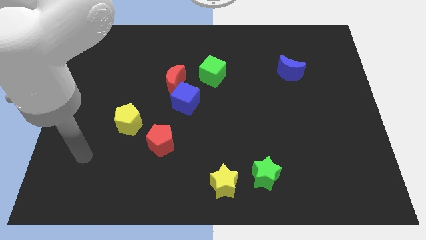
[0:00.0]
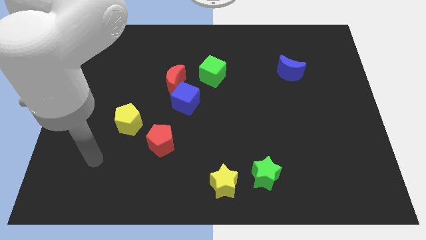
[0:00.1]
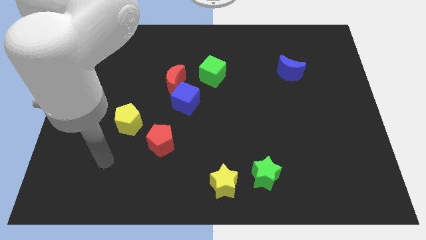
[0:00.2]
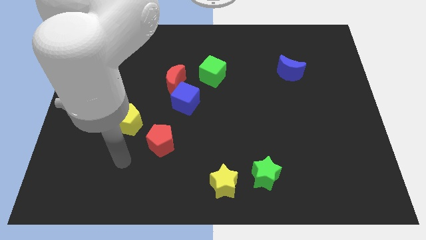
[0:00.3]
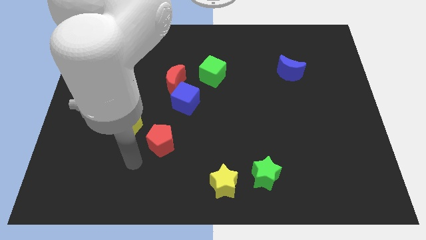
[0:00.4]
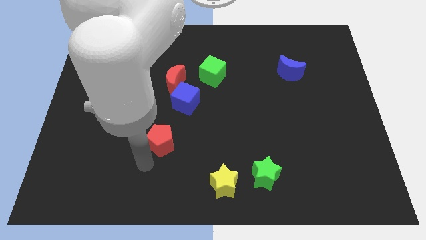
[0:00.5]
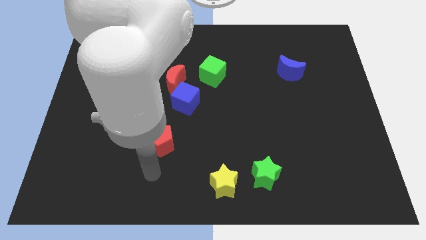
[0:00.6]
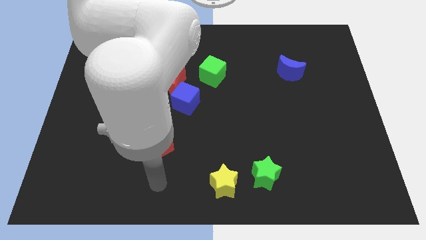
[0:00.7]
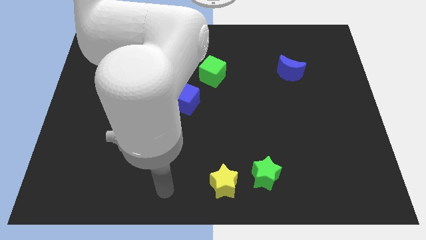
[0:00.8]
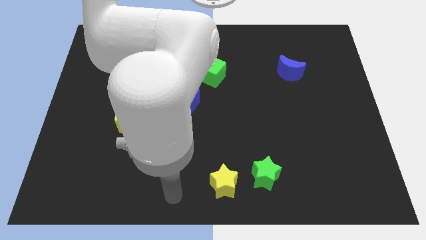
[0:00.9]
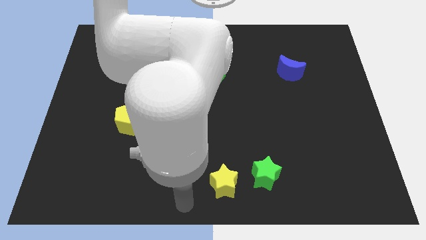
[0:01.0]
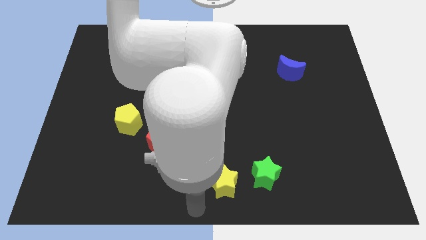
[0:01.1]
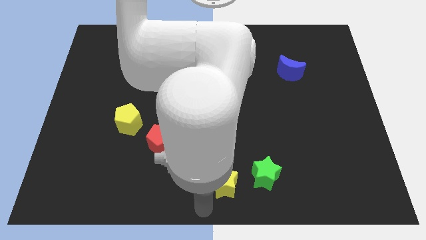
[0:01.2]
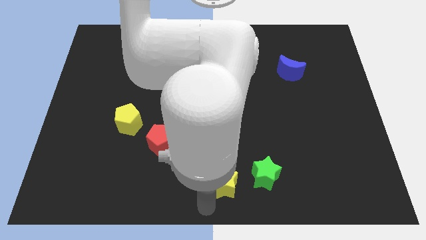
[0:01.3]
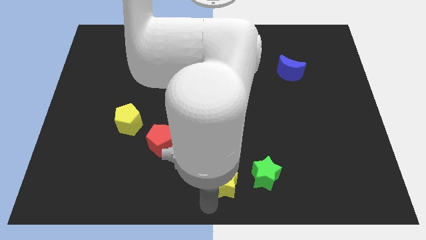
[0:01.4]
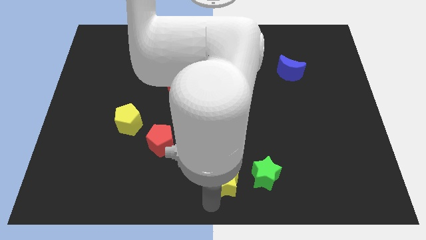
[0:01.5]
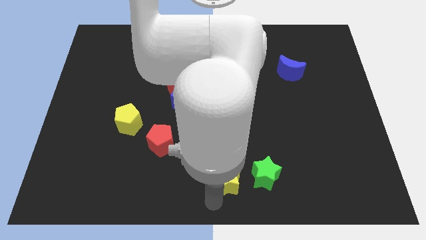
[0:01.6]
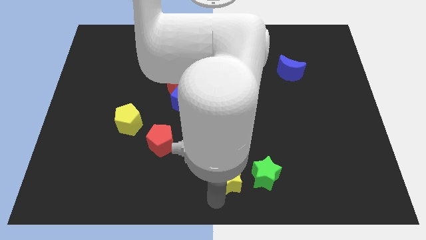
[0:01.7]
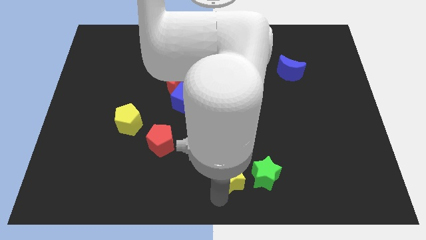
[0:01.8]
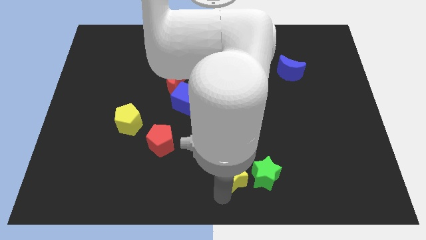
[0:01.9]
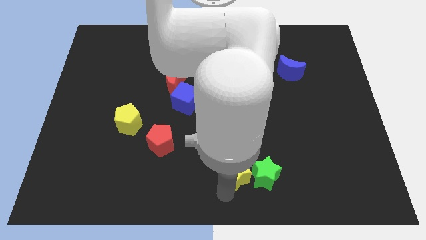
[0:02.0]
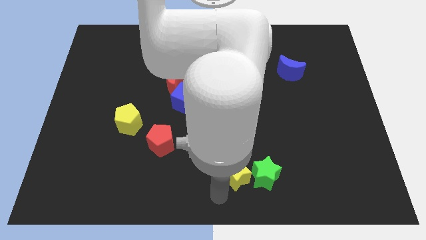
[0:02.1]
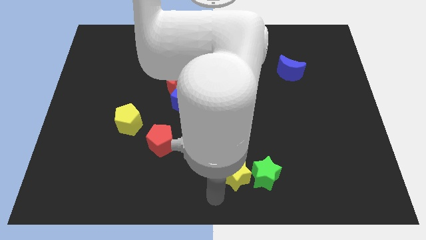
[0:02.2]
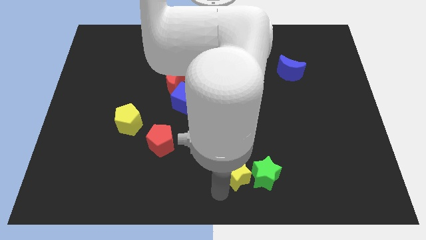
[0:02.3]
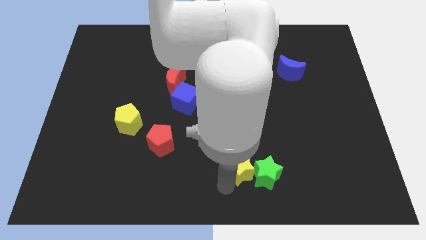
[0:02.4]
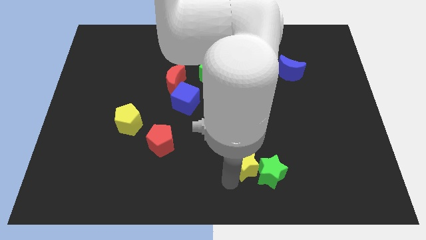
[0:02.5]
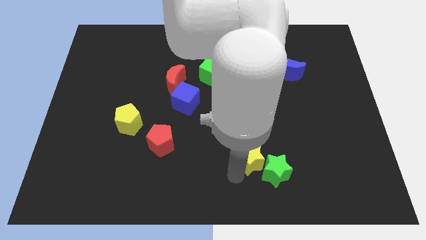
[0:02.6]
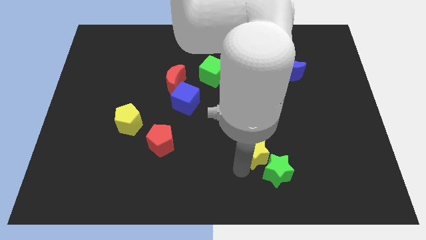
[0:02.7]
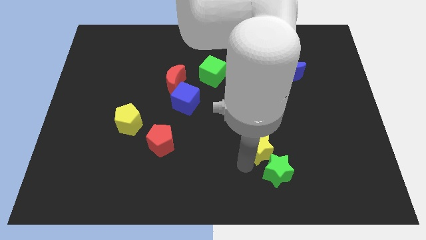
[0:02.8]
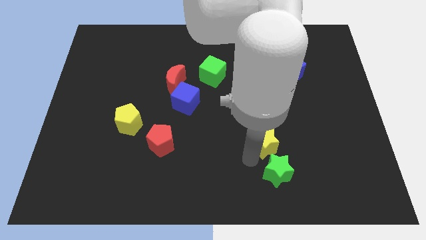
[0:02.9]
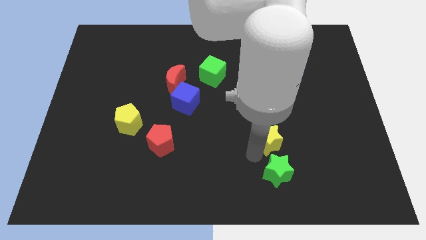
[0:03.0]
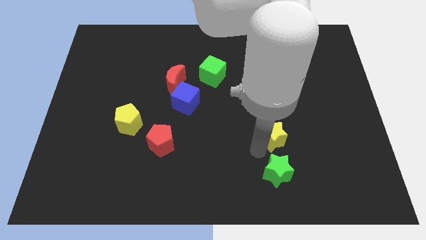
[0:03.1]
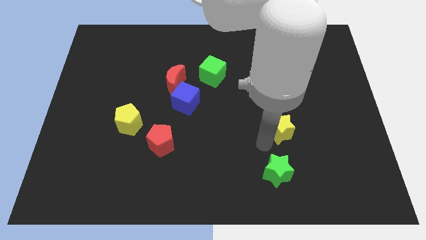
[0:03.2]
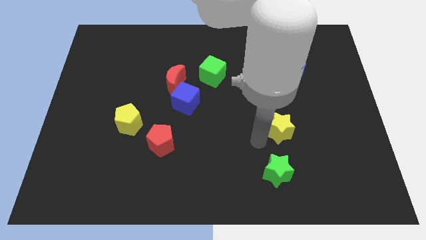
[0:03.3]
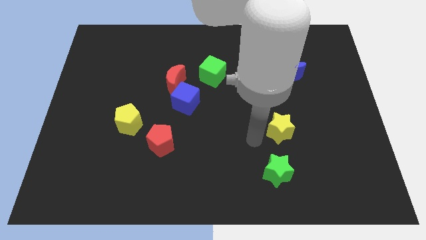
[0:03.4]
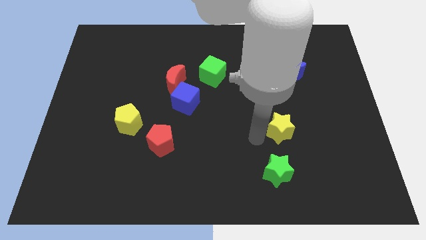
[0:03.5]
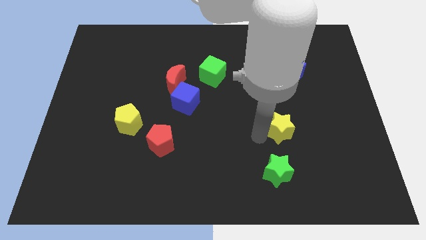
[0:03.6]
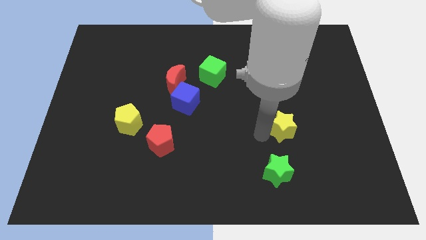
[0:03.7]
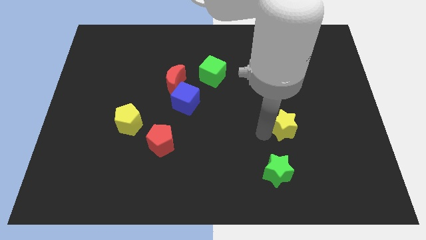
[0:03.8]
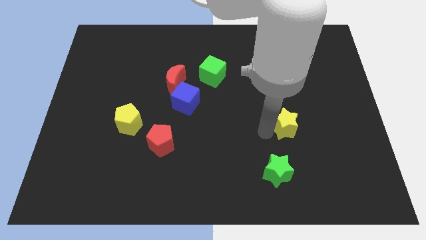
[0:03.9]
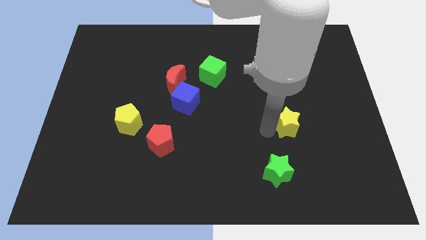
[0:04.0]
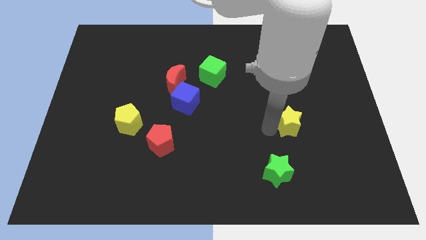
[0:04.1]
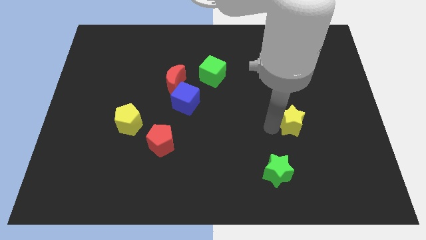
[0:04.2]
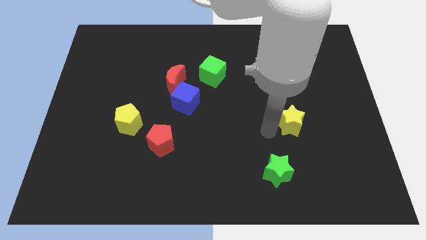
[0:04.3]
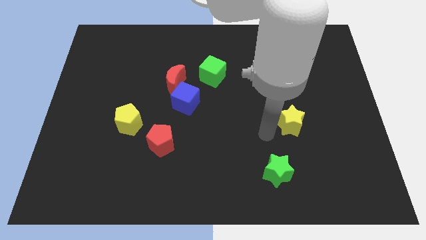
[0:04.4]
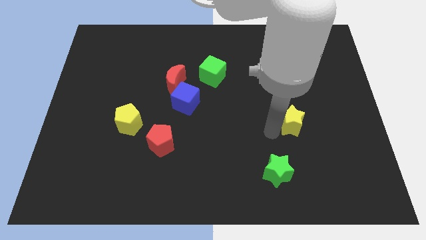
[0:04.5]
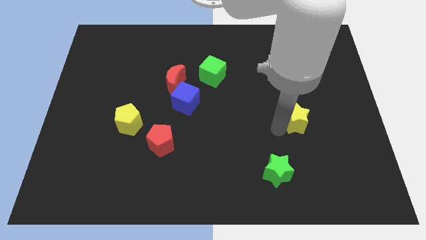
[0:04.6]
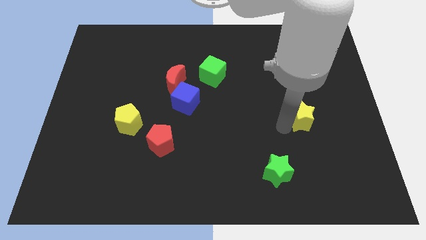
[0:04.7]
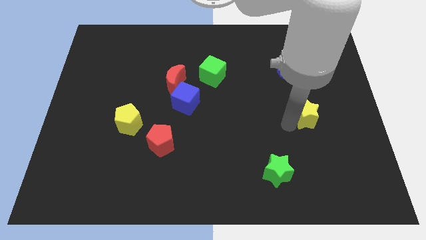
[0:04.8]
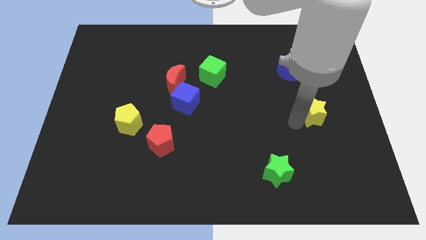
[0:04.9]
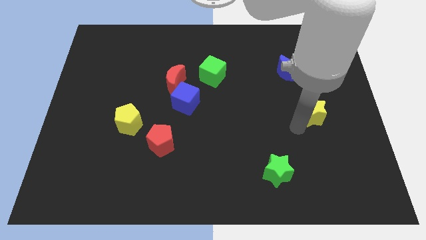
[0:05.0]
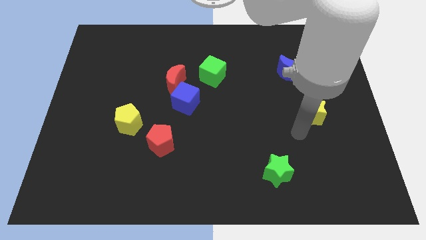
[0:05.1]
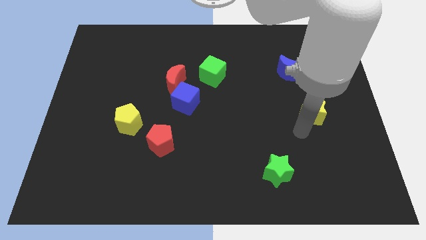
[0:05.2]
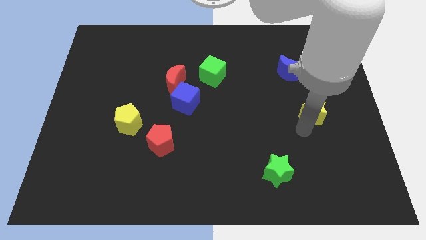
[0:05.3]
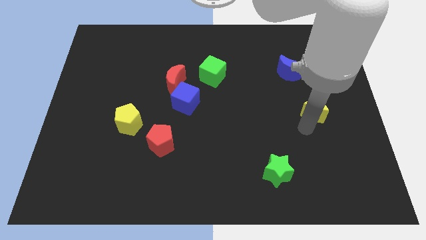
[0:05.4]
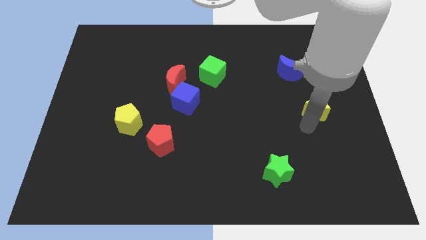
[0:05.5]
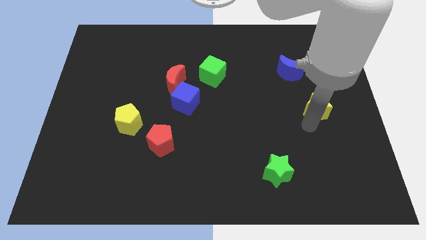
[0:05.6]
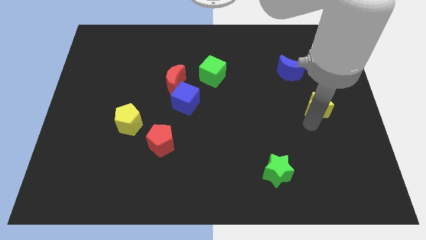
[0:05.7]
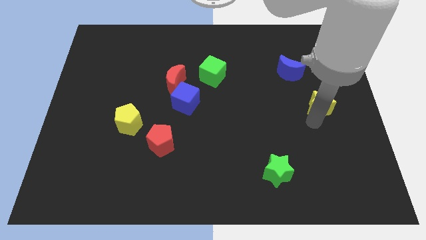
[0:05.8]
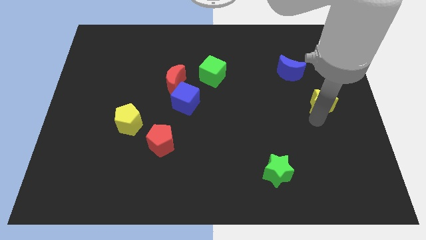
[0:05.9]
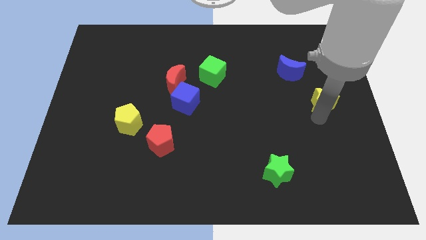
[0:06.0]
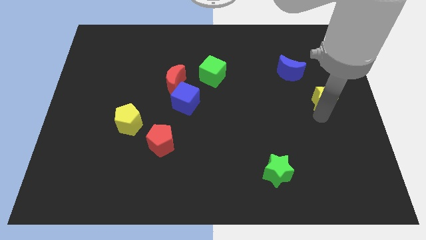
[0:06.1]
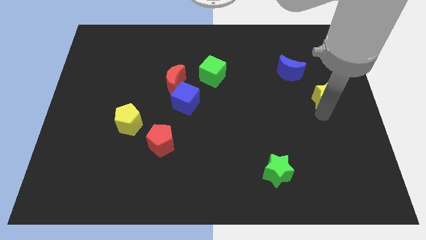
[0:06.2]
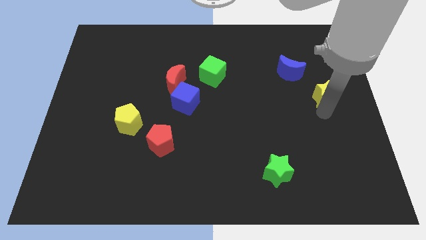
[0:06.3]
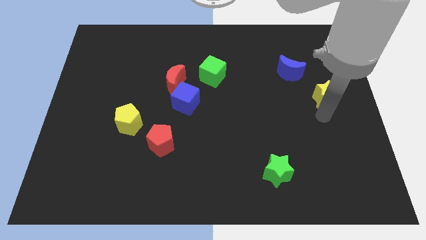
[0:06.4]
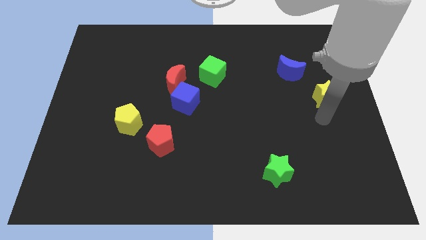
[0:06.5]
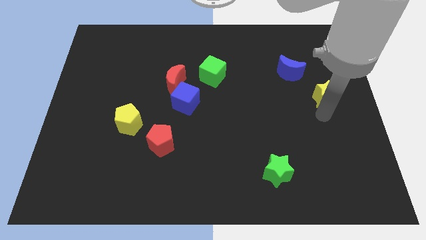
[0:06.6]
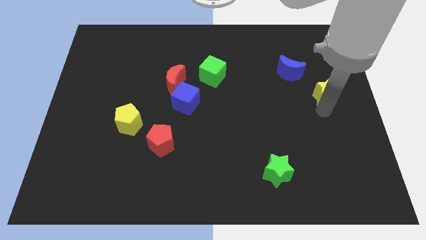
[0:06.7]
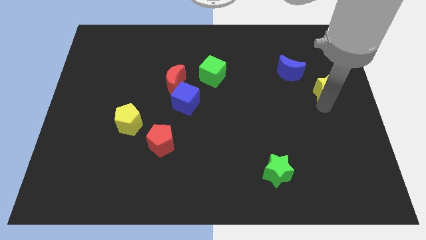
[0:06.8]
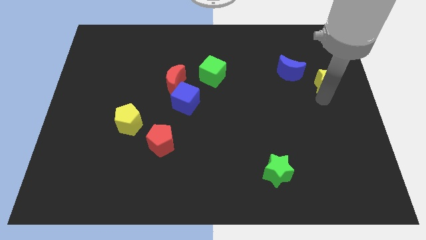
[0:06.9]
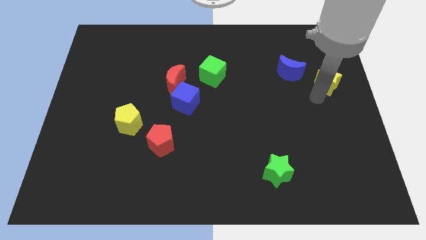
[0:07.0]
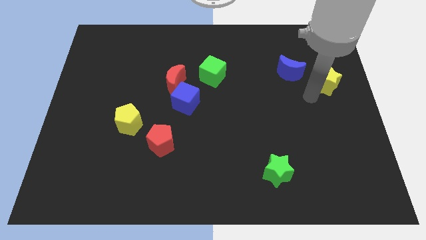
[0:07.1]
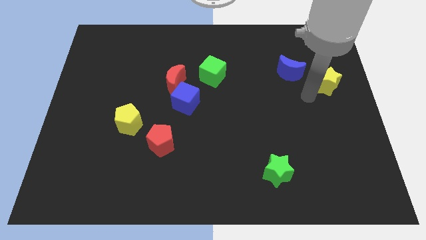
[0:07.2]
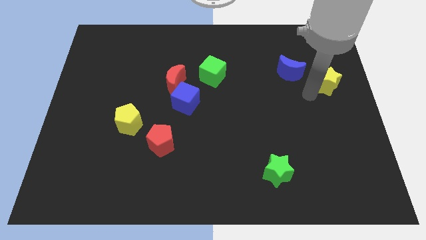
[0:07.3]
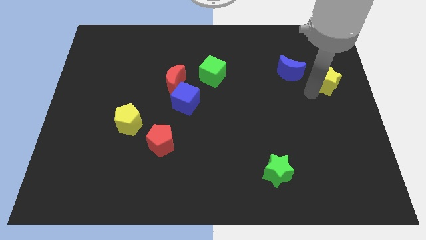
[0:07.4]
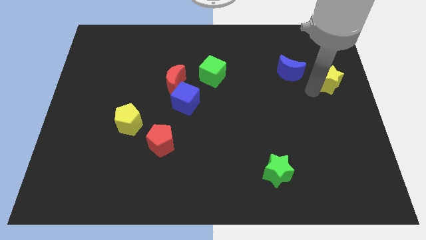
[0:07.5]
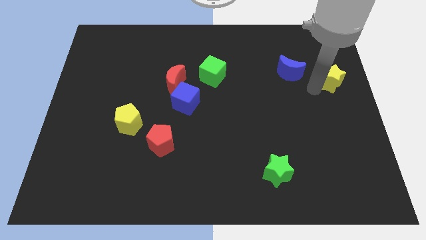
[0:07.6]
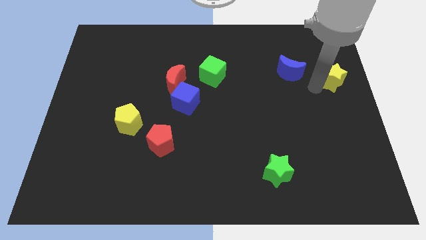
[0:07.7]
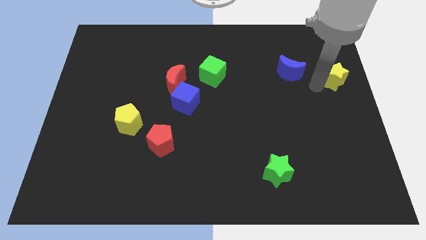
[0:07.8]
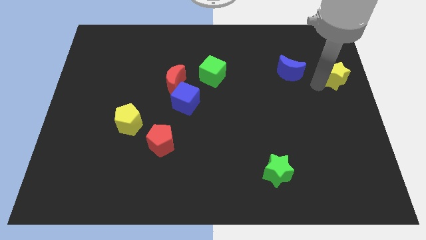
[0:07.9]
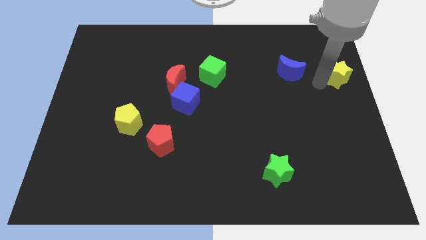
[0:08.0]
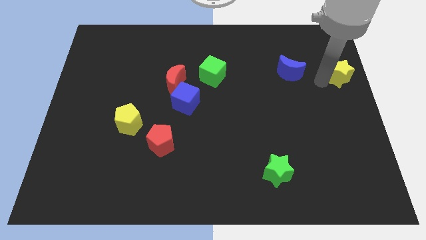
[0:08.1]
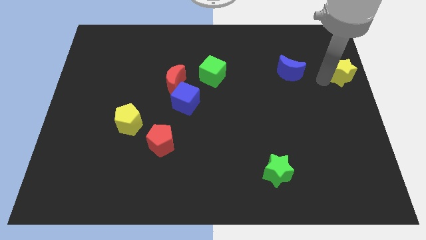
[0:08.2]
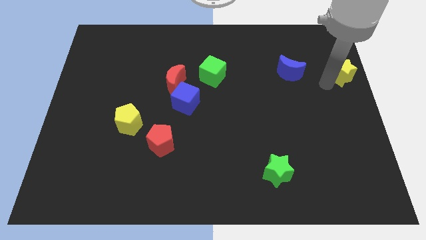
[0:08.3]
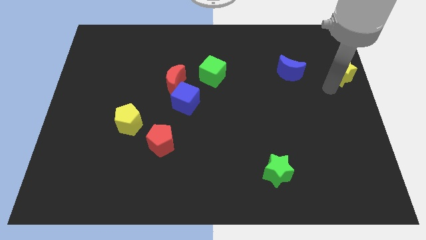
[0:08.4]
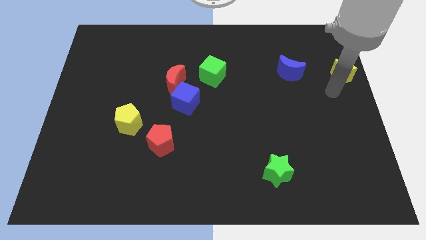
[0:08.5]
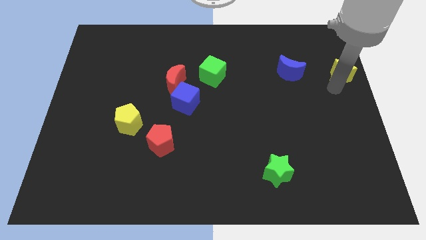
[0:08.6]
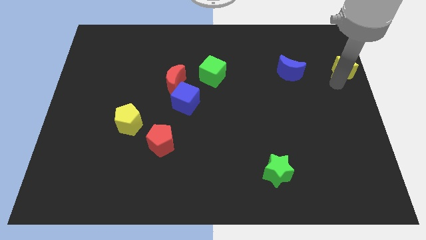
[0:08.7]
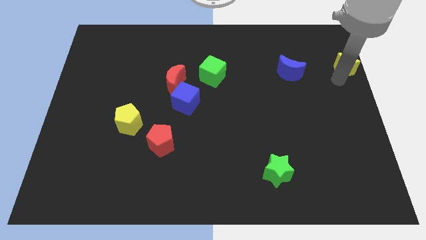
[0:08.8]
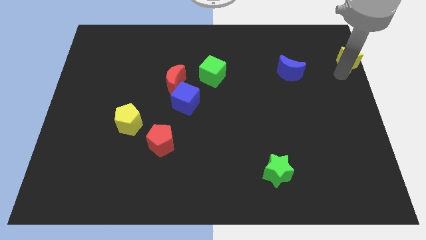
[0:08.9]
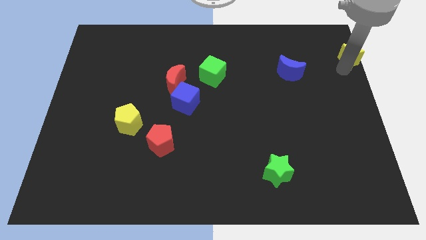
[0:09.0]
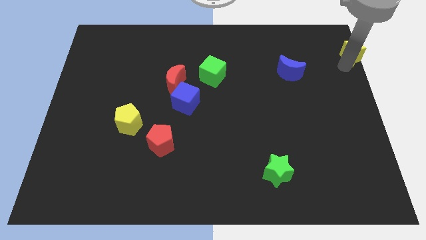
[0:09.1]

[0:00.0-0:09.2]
put the yellow star to the top right of the board
